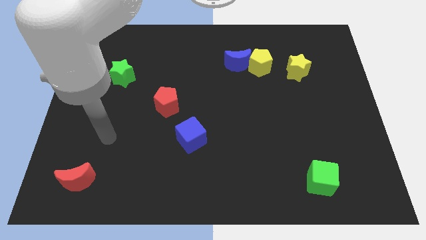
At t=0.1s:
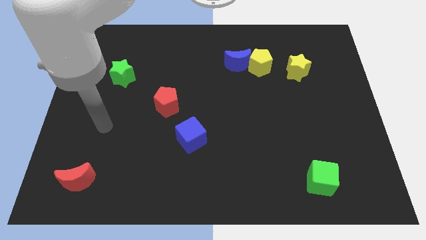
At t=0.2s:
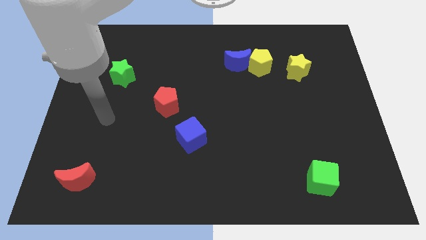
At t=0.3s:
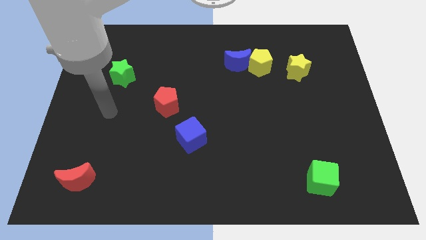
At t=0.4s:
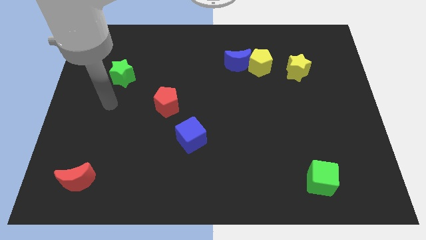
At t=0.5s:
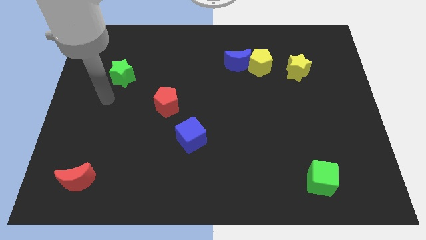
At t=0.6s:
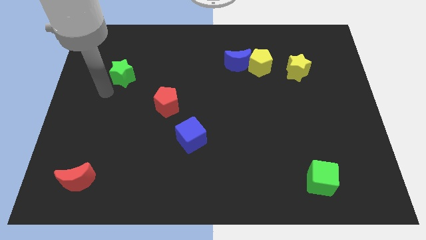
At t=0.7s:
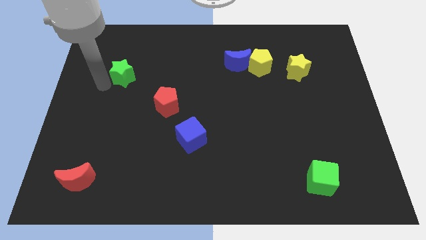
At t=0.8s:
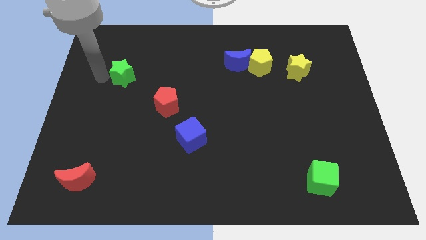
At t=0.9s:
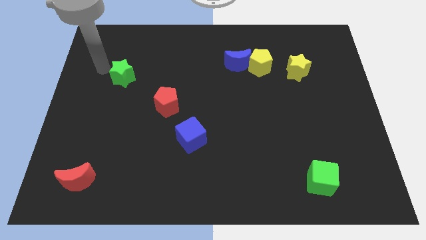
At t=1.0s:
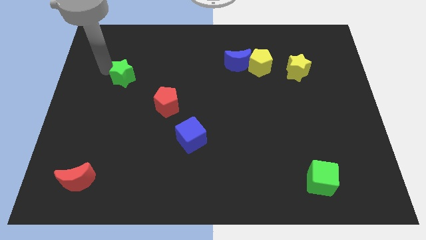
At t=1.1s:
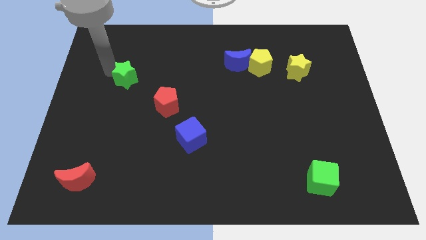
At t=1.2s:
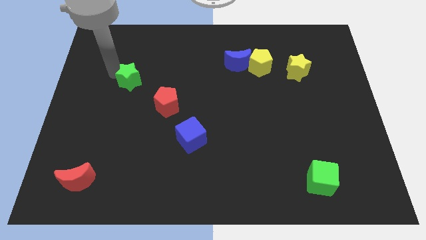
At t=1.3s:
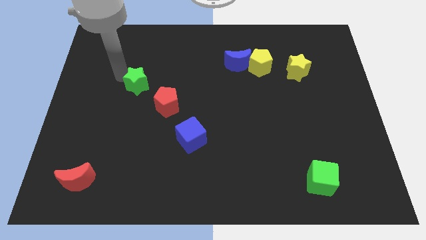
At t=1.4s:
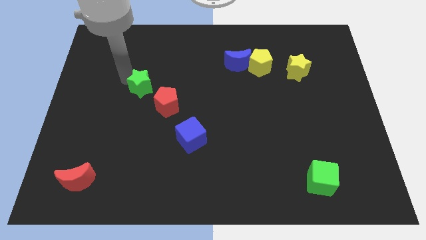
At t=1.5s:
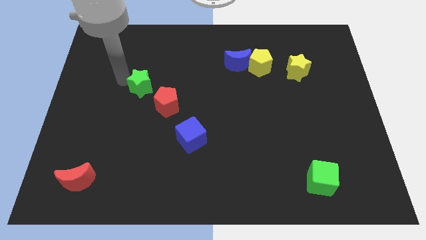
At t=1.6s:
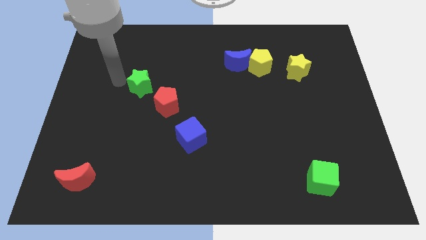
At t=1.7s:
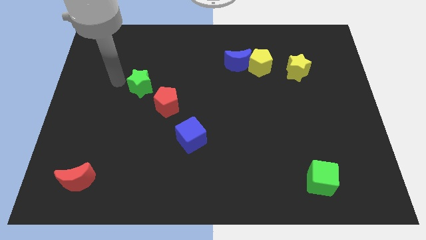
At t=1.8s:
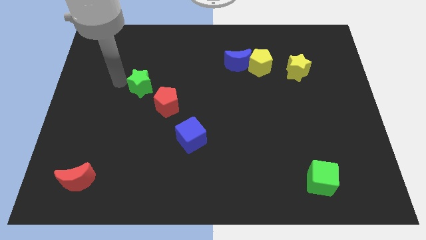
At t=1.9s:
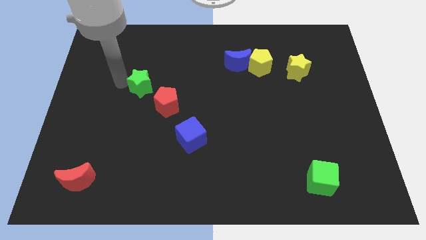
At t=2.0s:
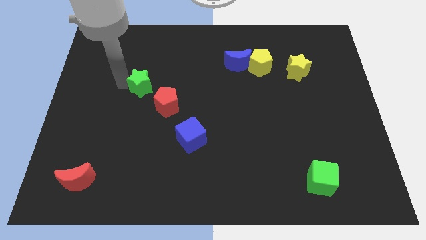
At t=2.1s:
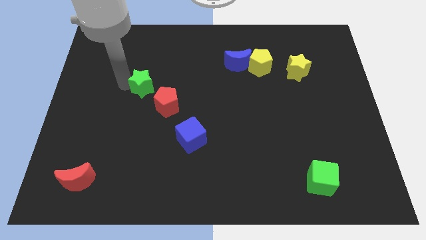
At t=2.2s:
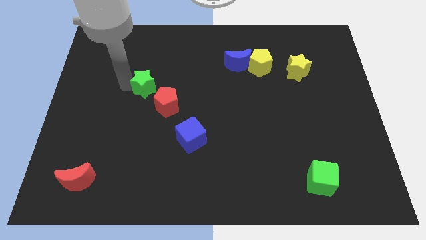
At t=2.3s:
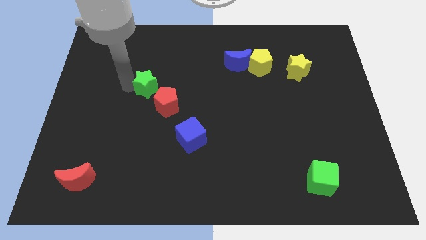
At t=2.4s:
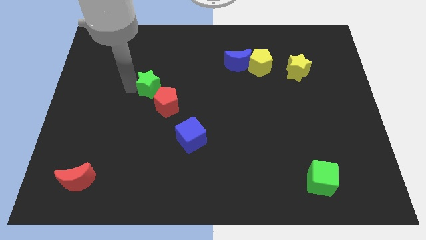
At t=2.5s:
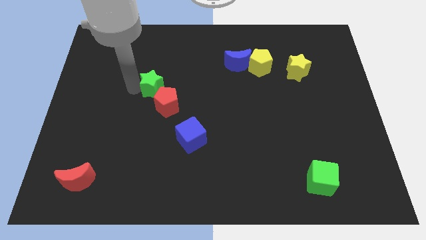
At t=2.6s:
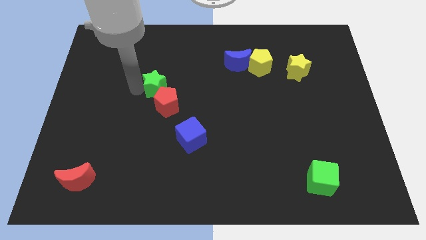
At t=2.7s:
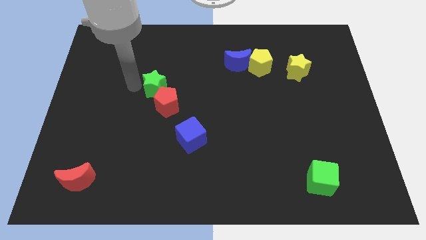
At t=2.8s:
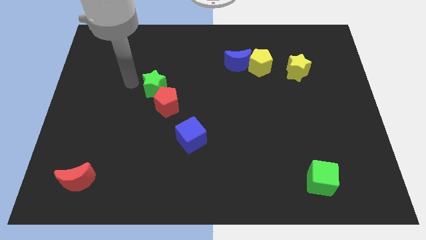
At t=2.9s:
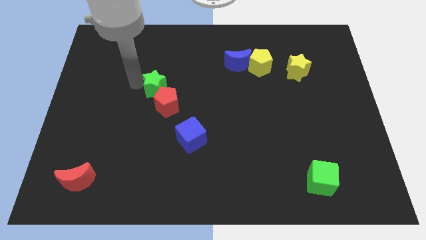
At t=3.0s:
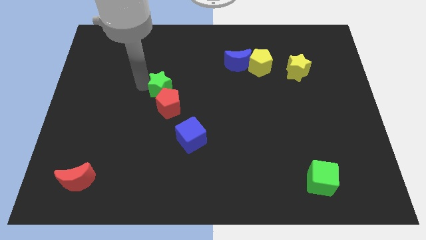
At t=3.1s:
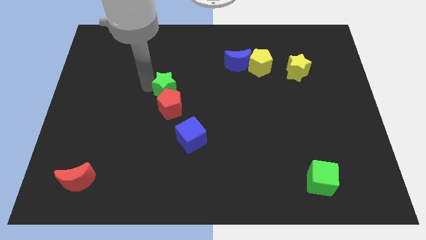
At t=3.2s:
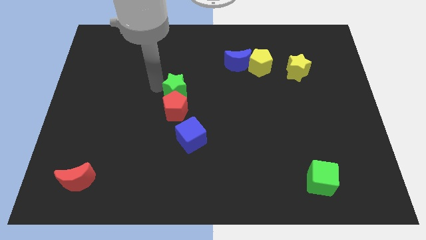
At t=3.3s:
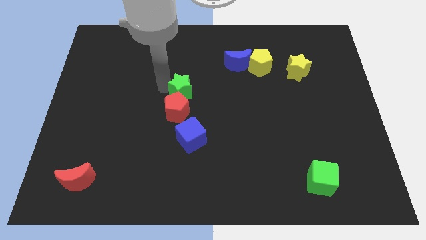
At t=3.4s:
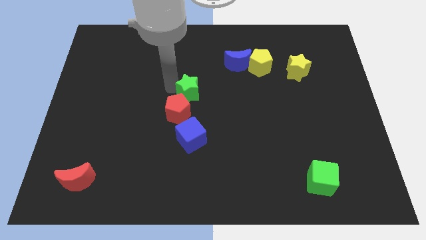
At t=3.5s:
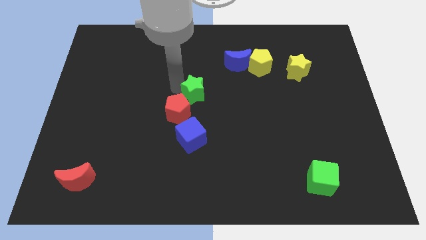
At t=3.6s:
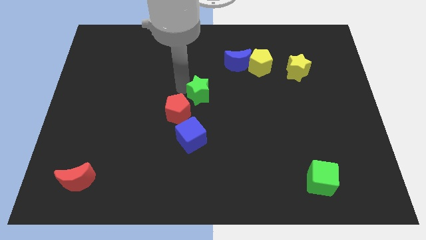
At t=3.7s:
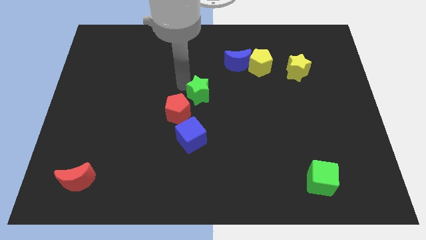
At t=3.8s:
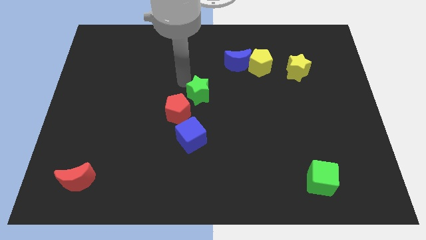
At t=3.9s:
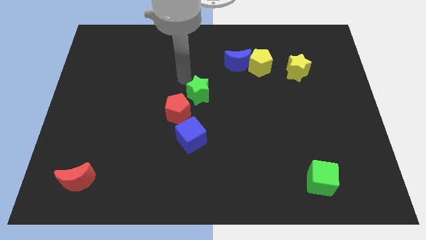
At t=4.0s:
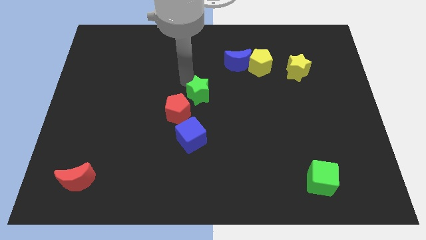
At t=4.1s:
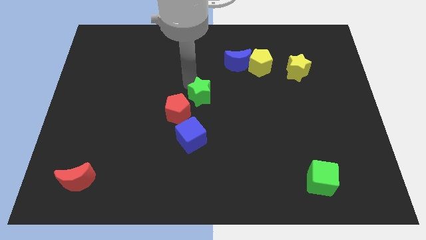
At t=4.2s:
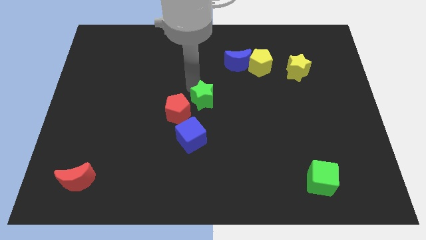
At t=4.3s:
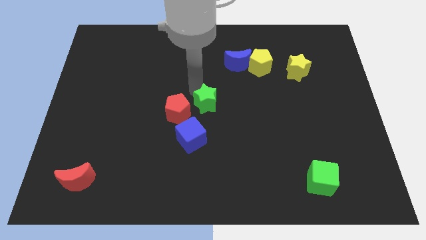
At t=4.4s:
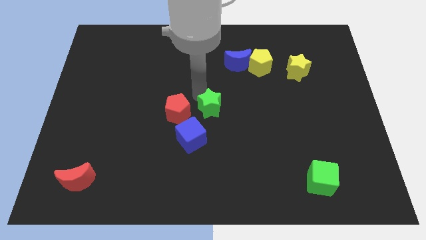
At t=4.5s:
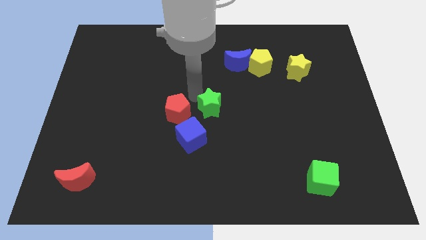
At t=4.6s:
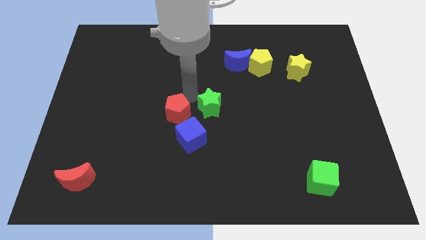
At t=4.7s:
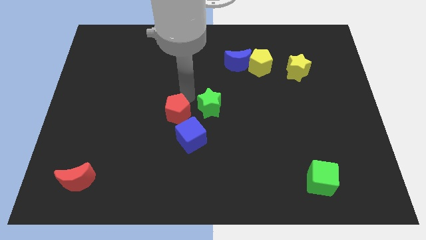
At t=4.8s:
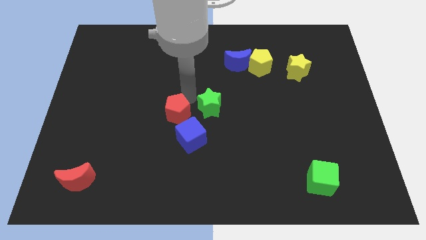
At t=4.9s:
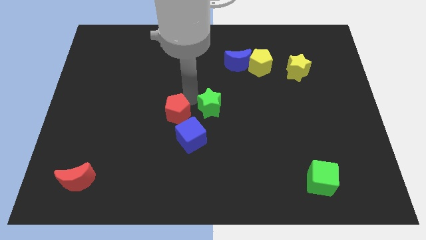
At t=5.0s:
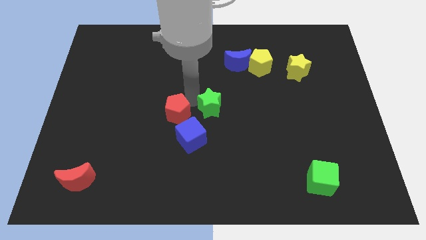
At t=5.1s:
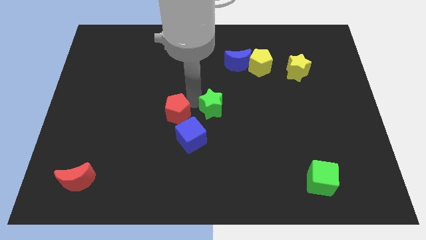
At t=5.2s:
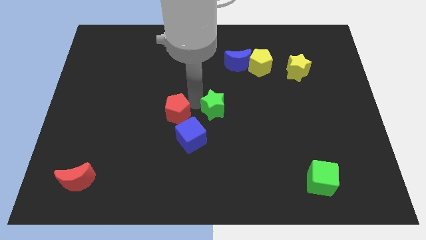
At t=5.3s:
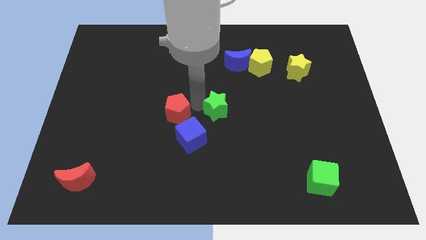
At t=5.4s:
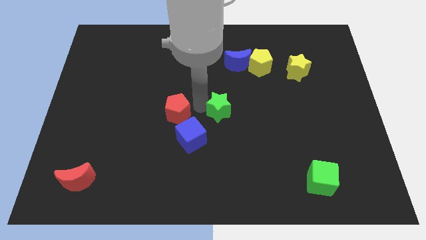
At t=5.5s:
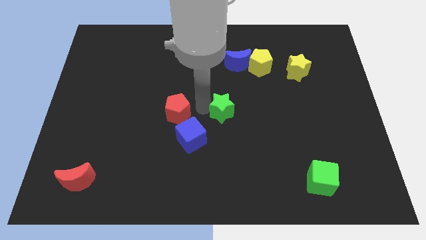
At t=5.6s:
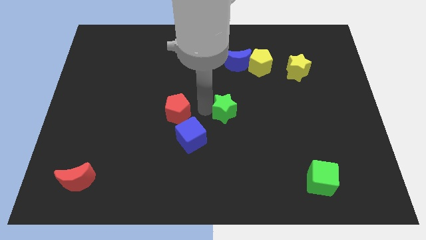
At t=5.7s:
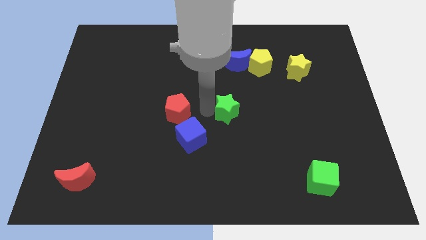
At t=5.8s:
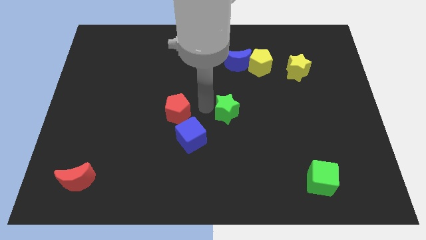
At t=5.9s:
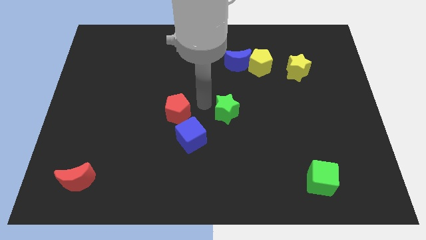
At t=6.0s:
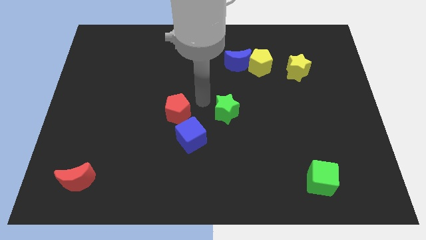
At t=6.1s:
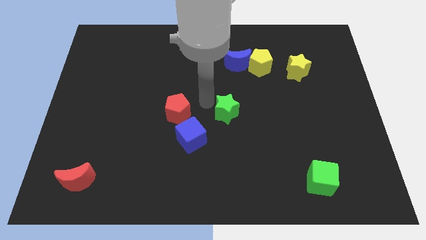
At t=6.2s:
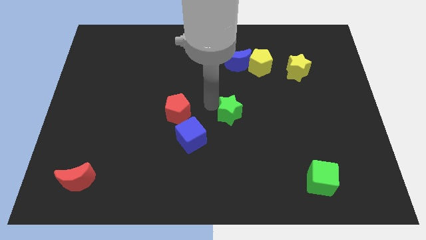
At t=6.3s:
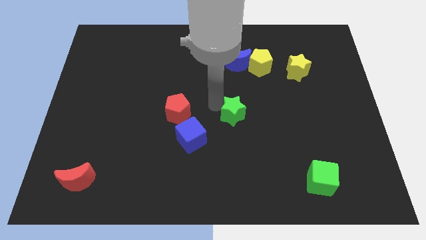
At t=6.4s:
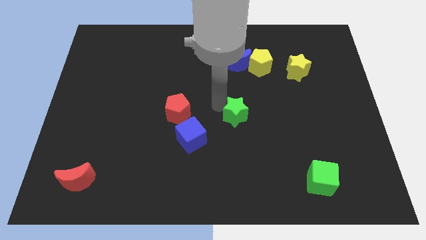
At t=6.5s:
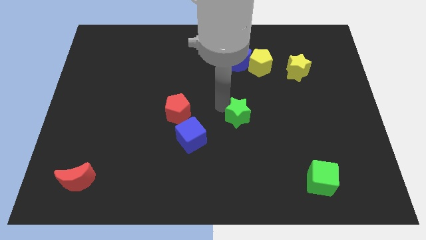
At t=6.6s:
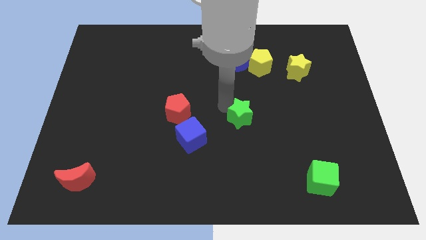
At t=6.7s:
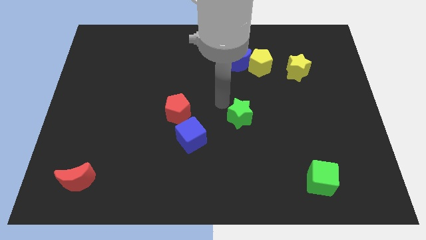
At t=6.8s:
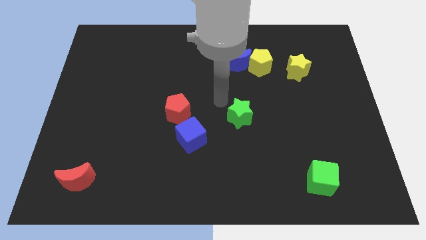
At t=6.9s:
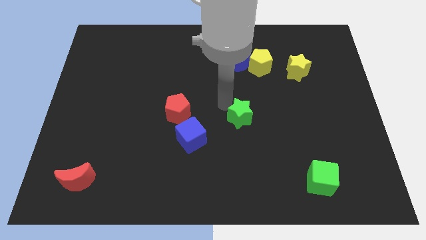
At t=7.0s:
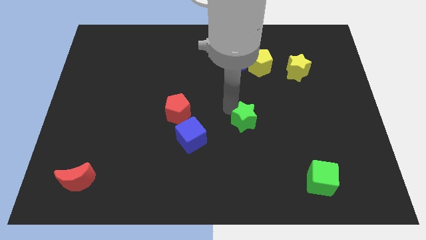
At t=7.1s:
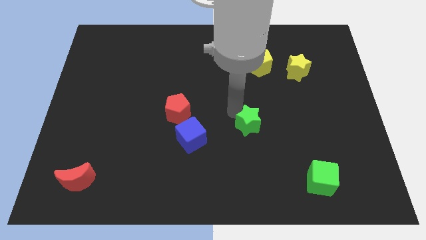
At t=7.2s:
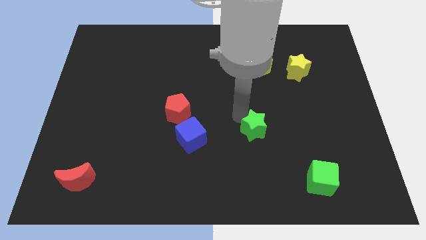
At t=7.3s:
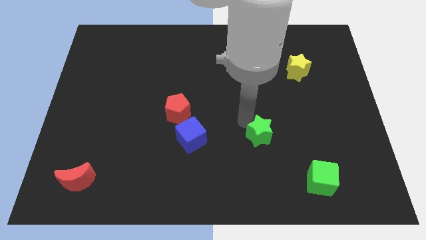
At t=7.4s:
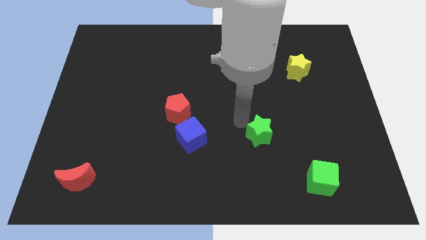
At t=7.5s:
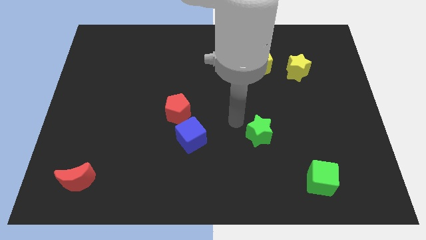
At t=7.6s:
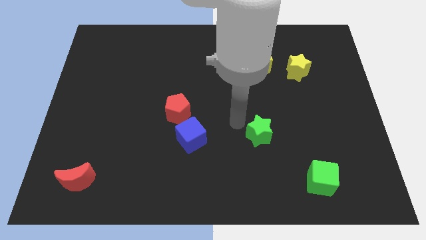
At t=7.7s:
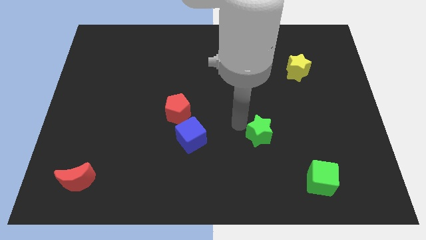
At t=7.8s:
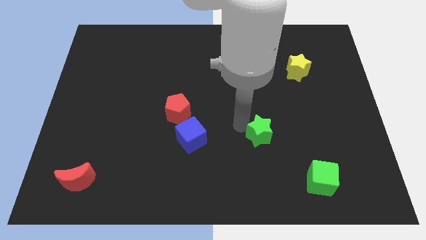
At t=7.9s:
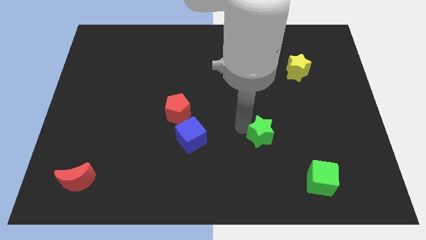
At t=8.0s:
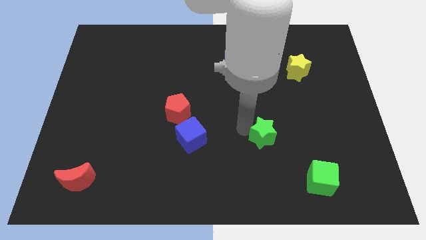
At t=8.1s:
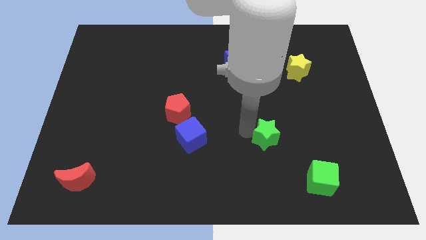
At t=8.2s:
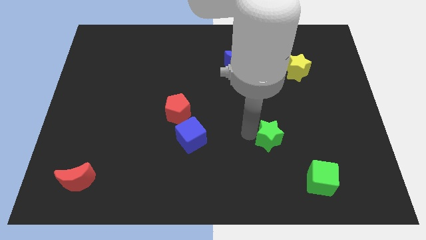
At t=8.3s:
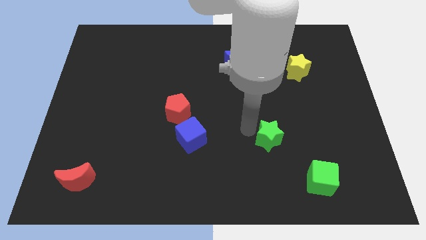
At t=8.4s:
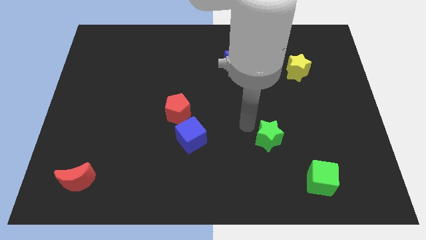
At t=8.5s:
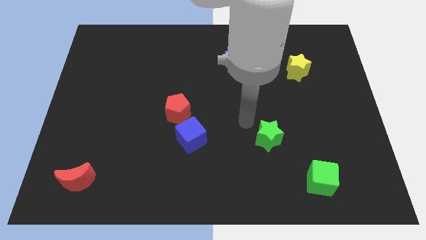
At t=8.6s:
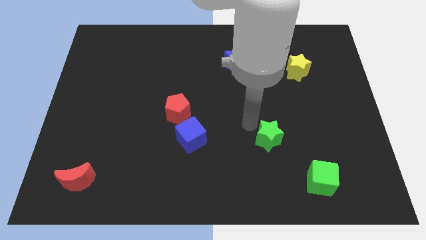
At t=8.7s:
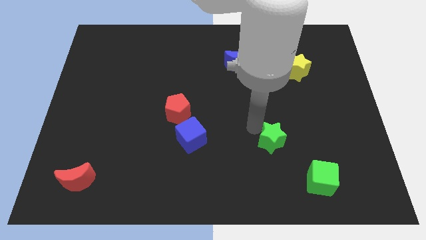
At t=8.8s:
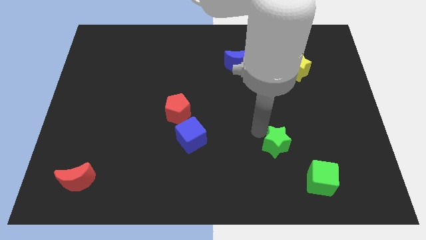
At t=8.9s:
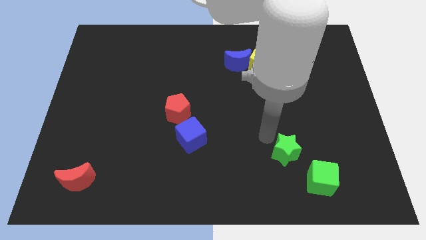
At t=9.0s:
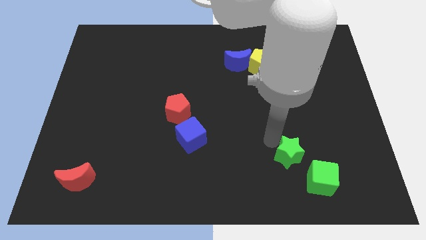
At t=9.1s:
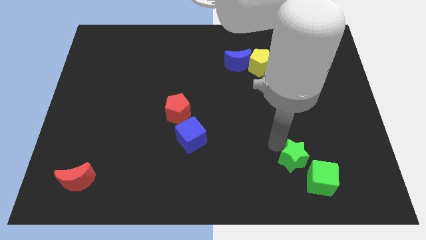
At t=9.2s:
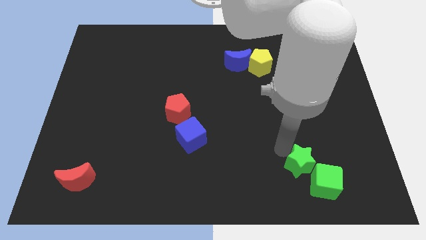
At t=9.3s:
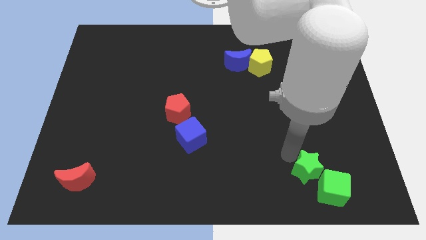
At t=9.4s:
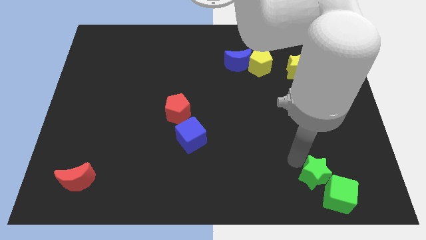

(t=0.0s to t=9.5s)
push the green star close to the green cube
